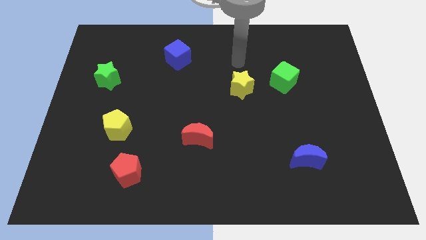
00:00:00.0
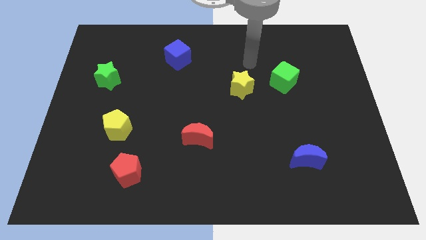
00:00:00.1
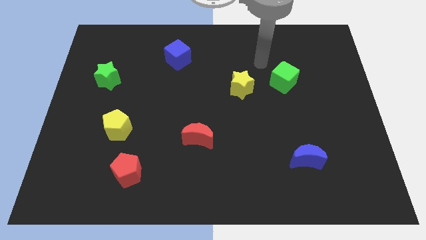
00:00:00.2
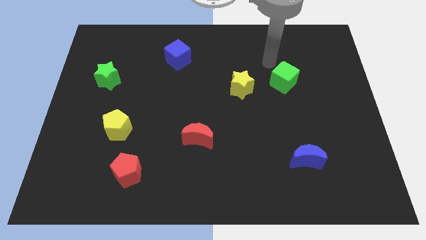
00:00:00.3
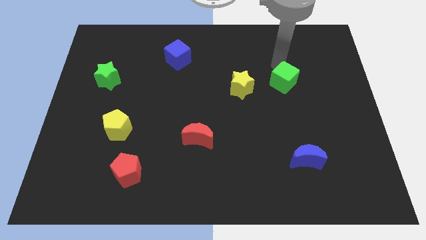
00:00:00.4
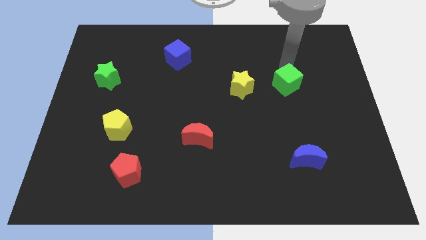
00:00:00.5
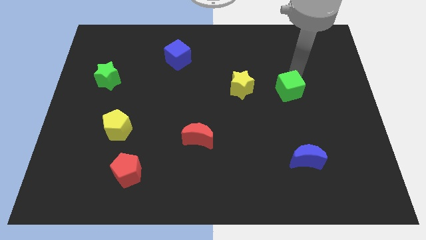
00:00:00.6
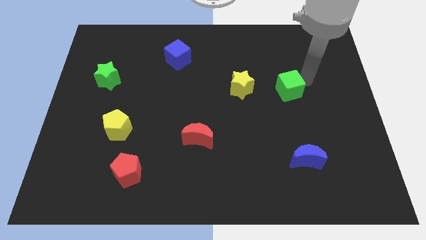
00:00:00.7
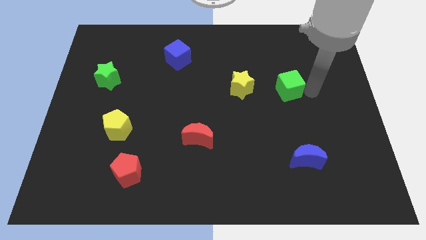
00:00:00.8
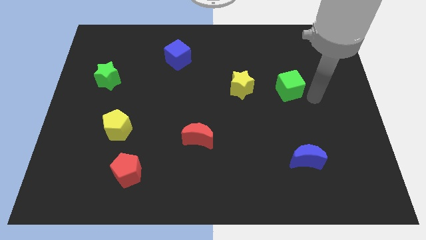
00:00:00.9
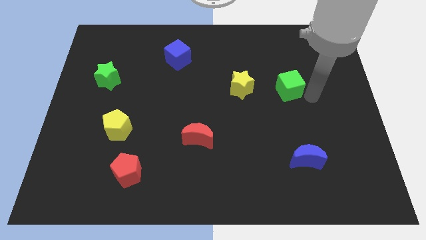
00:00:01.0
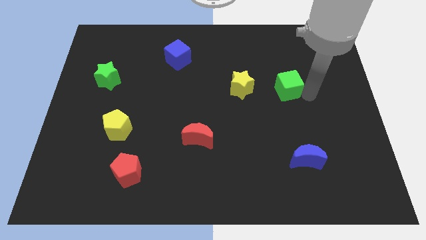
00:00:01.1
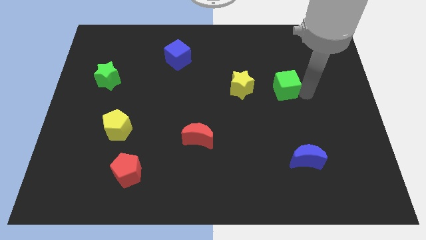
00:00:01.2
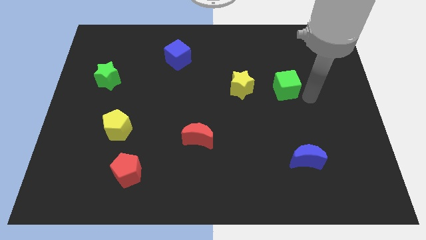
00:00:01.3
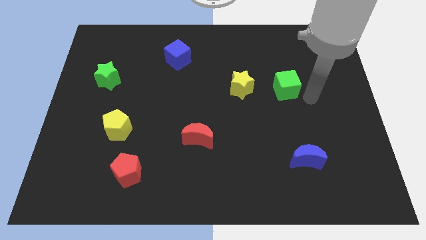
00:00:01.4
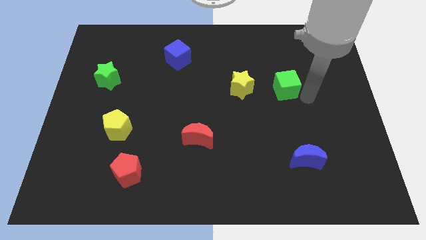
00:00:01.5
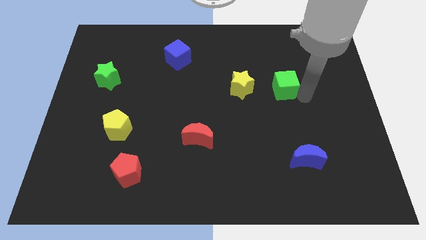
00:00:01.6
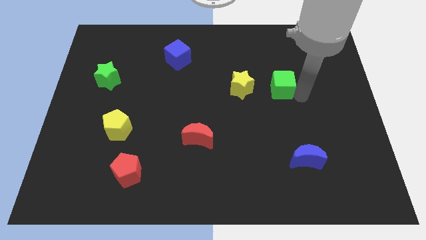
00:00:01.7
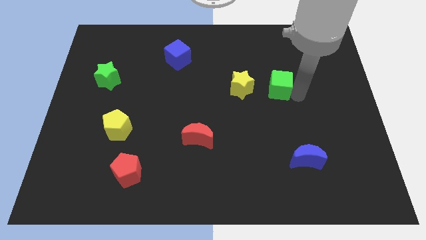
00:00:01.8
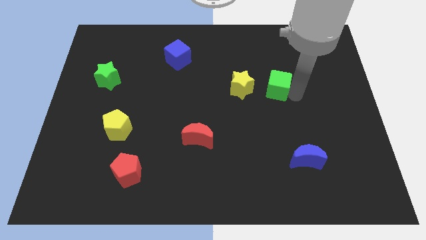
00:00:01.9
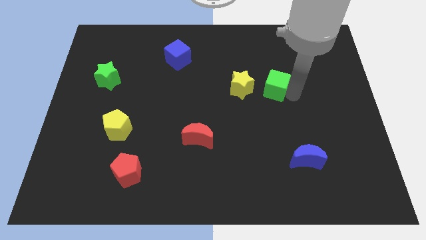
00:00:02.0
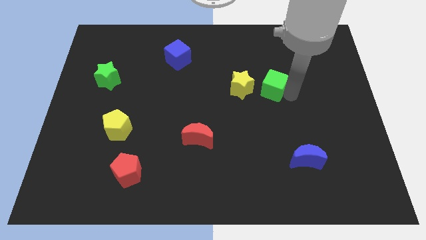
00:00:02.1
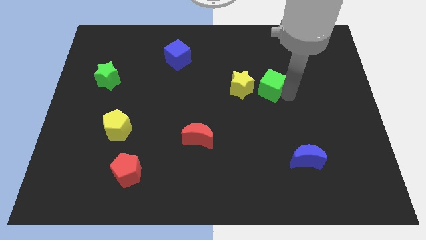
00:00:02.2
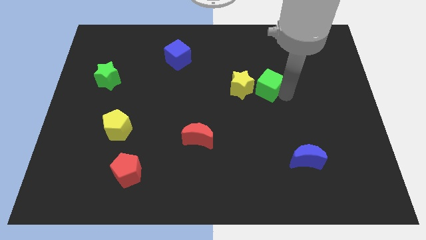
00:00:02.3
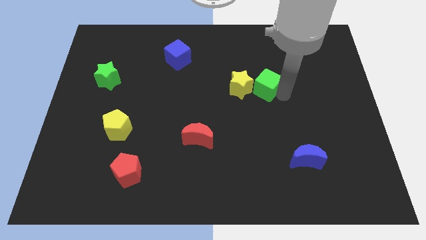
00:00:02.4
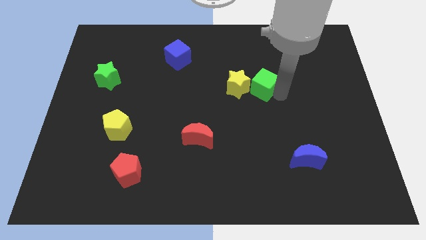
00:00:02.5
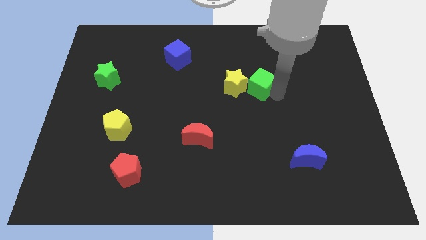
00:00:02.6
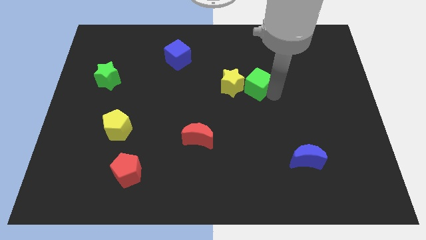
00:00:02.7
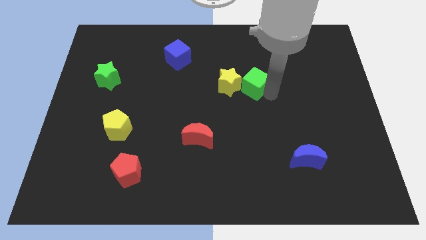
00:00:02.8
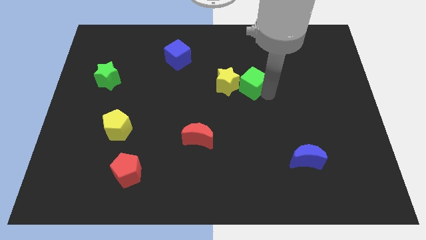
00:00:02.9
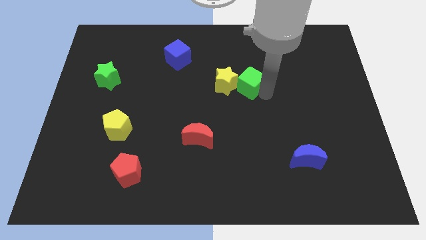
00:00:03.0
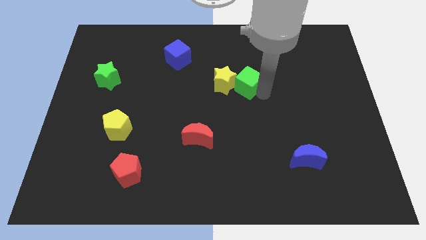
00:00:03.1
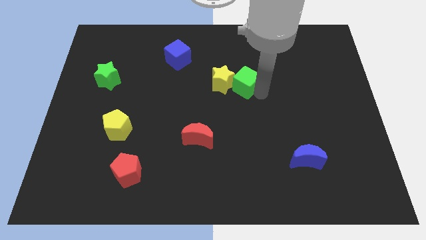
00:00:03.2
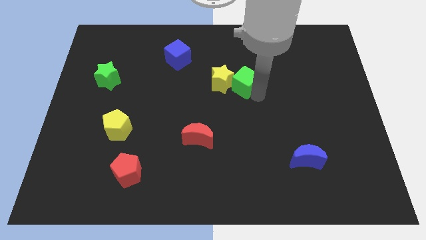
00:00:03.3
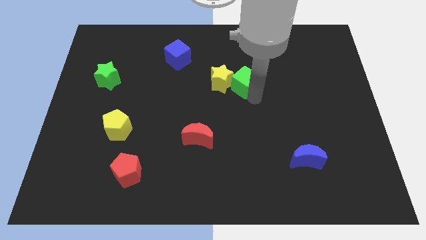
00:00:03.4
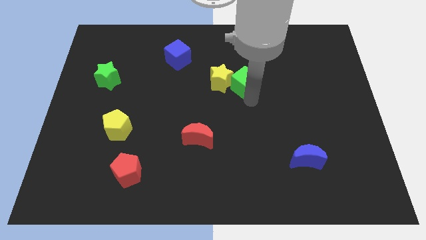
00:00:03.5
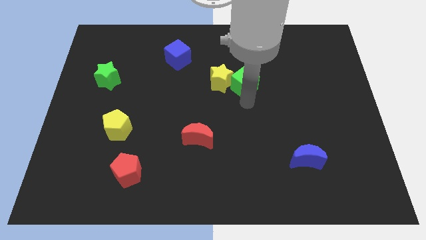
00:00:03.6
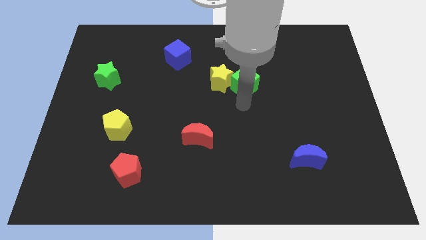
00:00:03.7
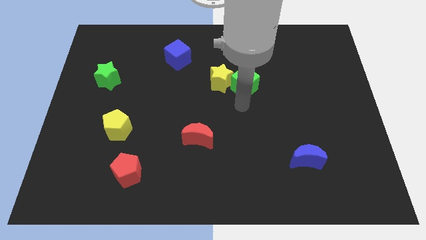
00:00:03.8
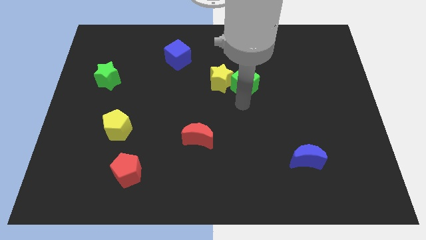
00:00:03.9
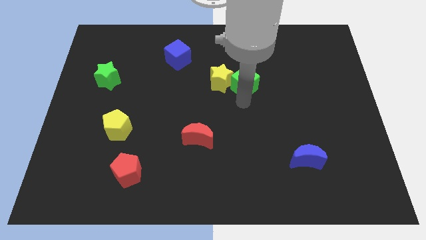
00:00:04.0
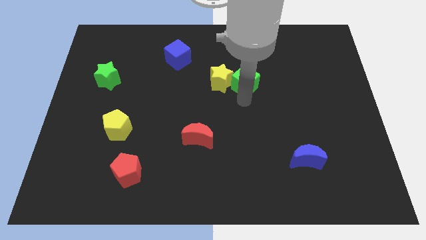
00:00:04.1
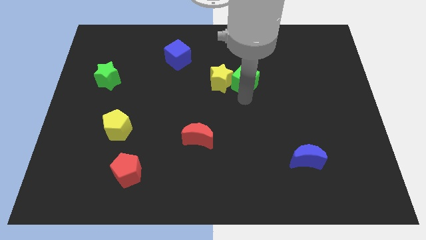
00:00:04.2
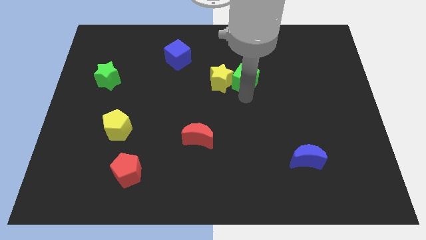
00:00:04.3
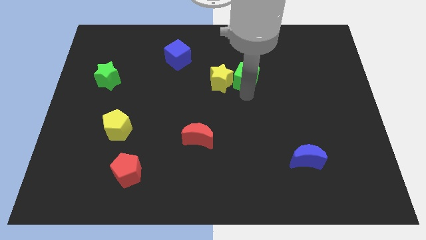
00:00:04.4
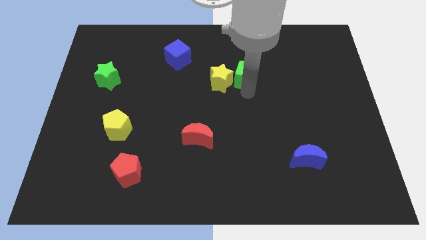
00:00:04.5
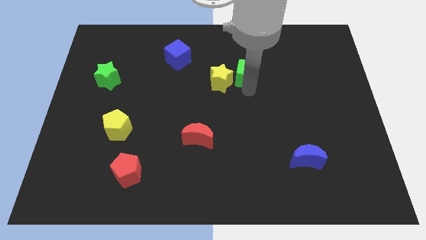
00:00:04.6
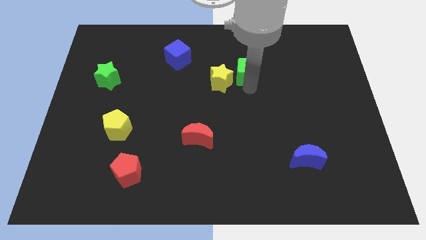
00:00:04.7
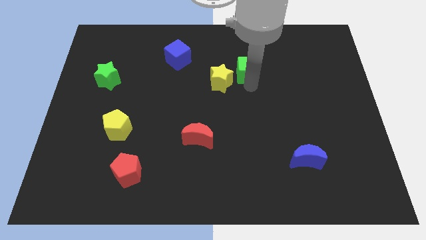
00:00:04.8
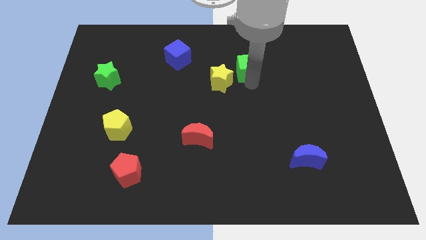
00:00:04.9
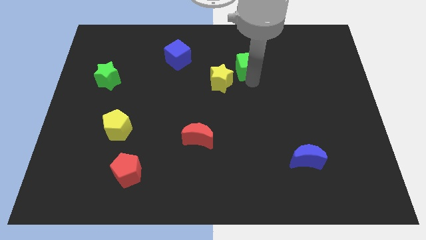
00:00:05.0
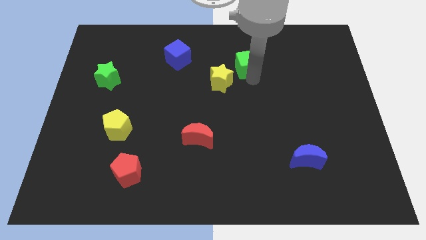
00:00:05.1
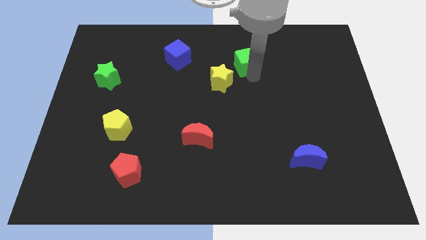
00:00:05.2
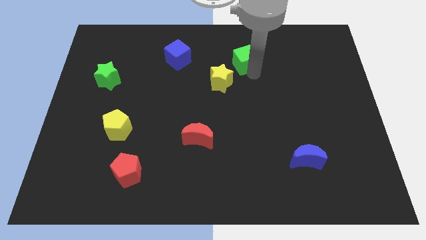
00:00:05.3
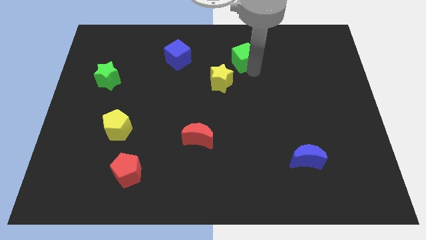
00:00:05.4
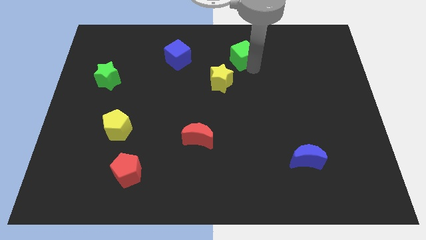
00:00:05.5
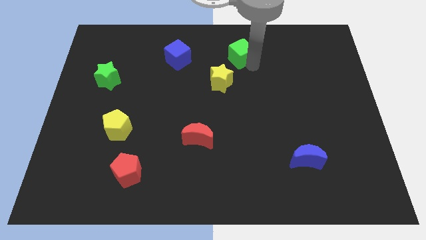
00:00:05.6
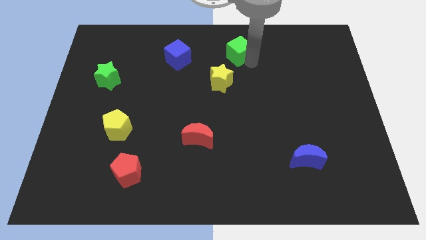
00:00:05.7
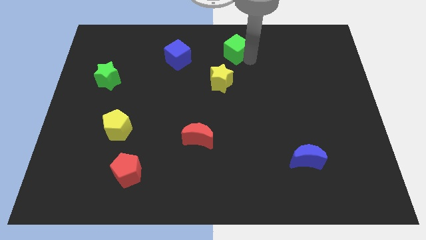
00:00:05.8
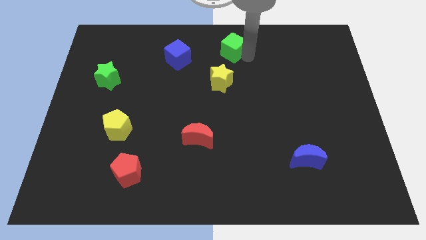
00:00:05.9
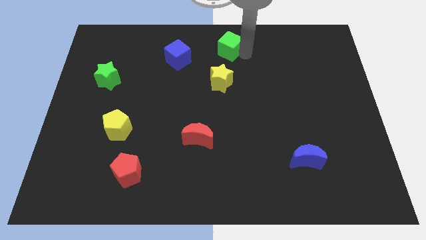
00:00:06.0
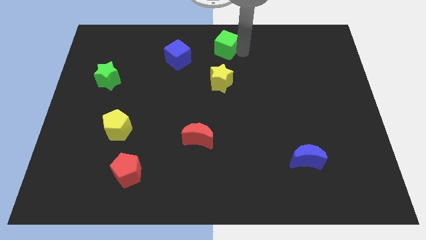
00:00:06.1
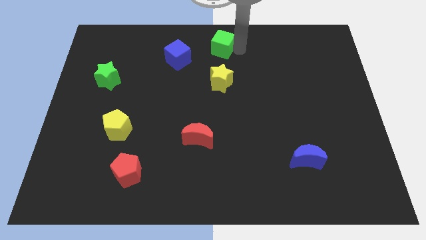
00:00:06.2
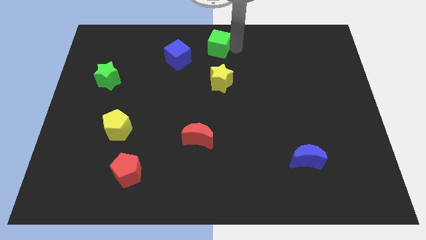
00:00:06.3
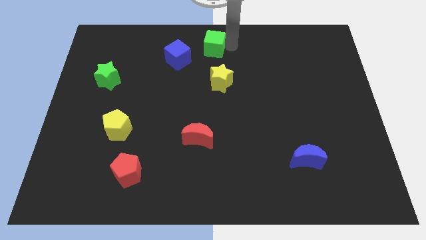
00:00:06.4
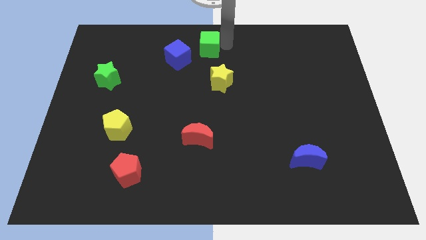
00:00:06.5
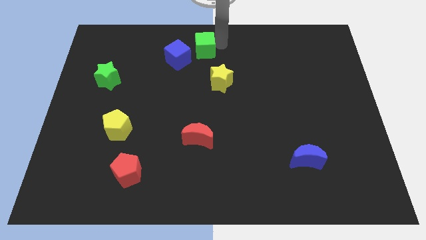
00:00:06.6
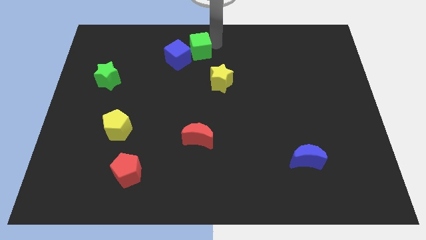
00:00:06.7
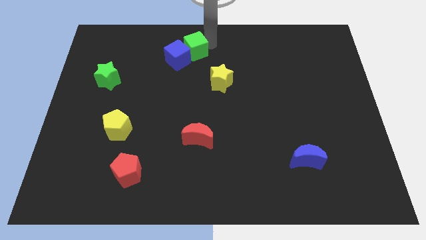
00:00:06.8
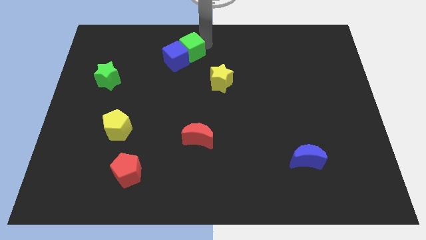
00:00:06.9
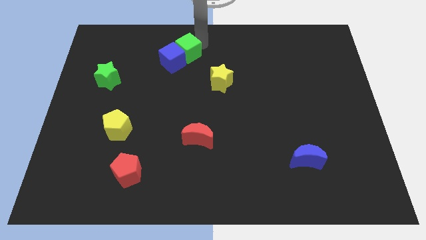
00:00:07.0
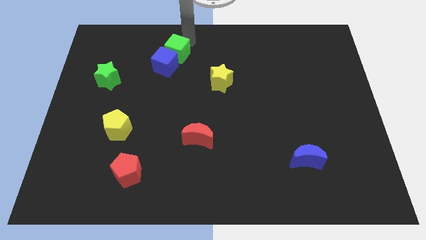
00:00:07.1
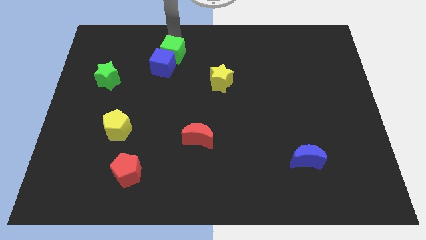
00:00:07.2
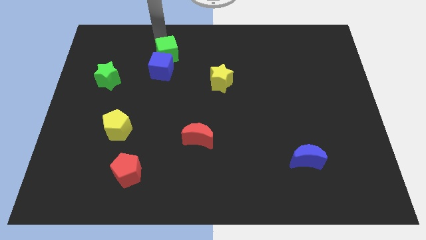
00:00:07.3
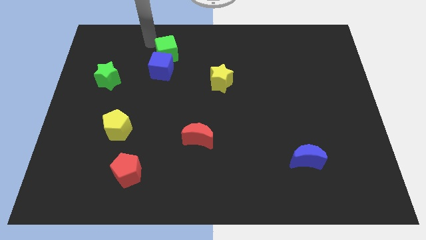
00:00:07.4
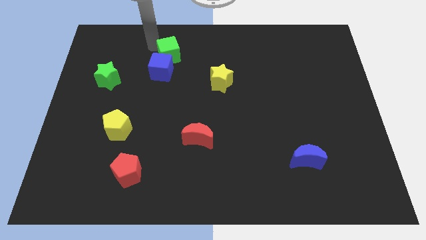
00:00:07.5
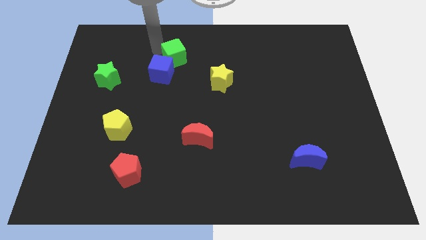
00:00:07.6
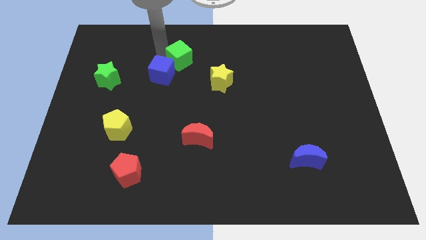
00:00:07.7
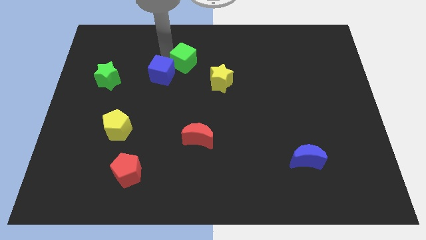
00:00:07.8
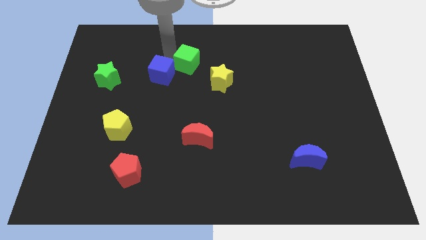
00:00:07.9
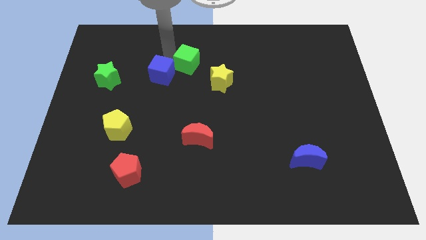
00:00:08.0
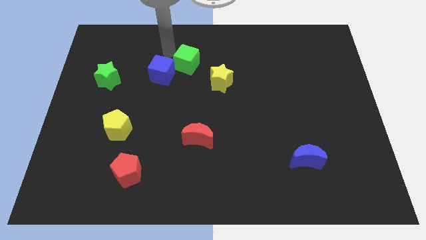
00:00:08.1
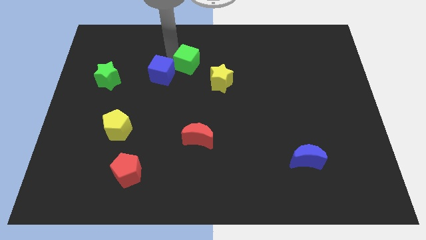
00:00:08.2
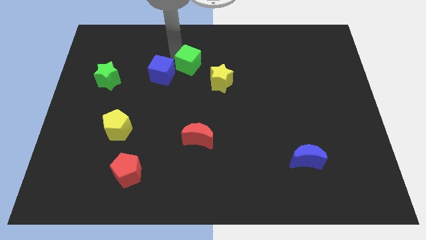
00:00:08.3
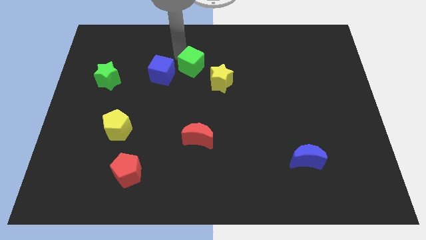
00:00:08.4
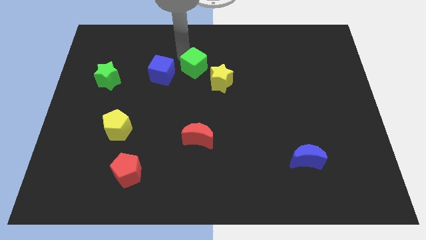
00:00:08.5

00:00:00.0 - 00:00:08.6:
push the green cube to the left of the yellow star
